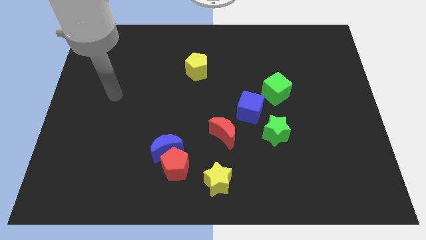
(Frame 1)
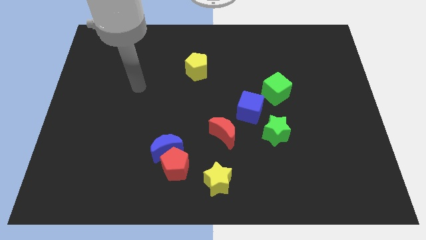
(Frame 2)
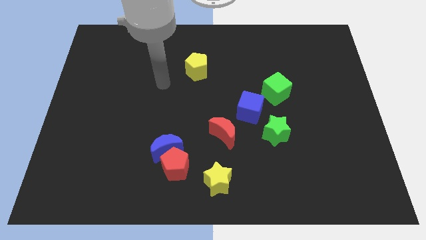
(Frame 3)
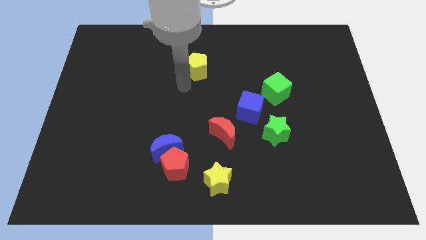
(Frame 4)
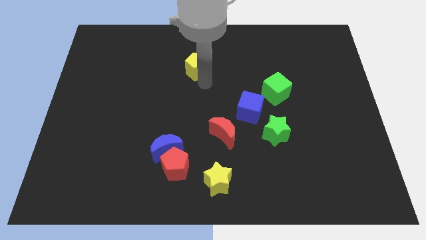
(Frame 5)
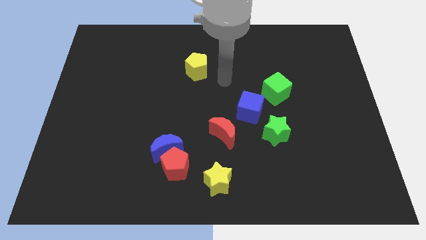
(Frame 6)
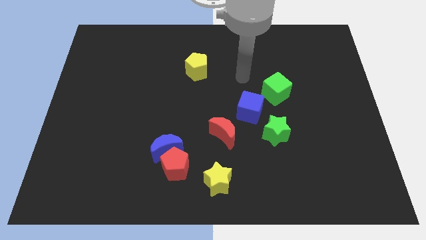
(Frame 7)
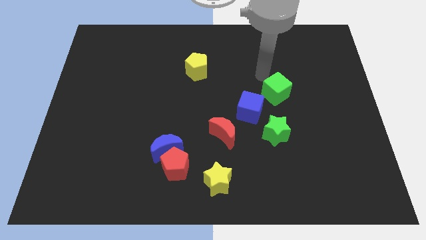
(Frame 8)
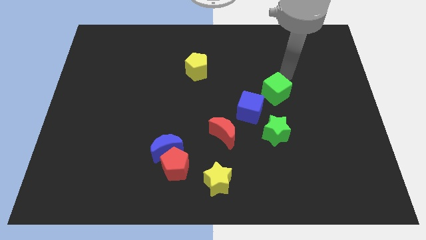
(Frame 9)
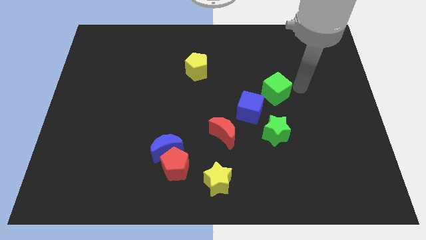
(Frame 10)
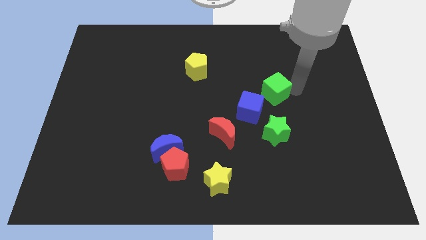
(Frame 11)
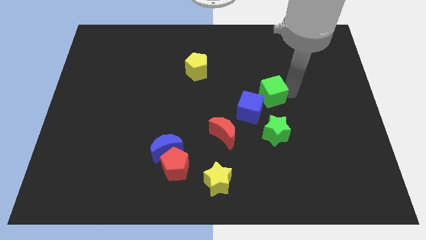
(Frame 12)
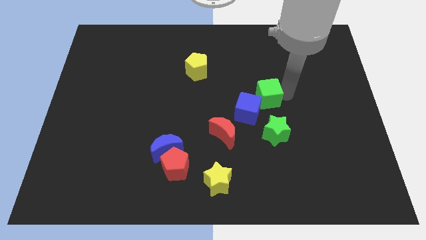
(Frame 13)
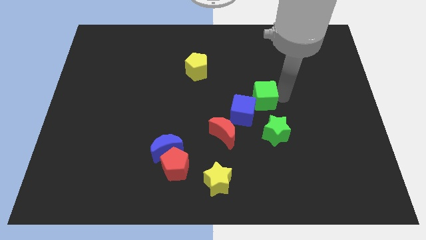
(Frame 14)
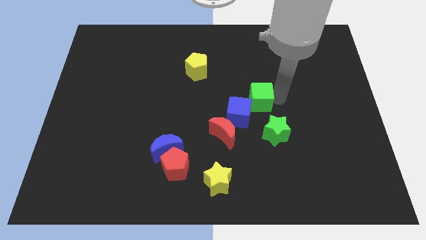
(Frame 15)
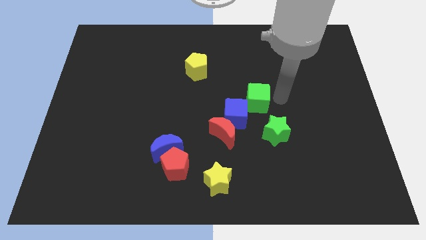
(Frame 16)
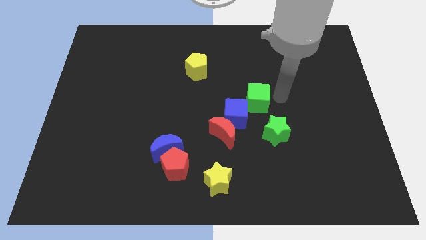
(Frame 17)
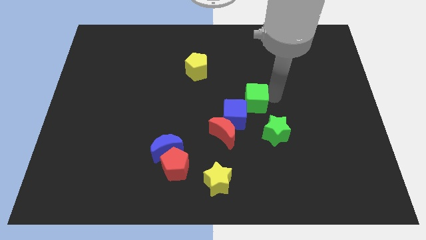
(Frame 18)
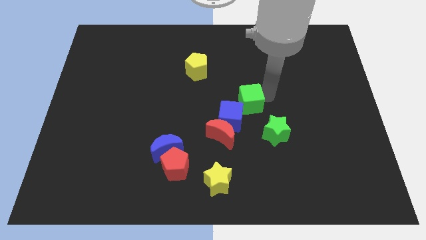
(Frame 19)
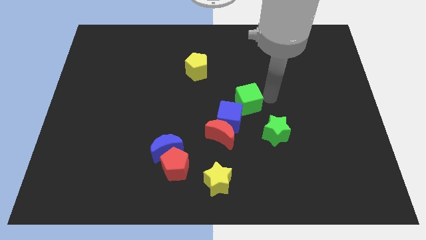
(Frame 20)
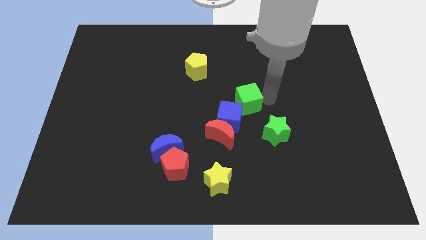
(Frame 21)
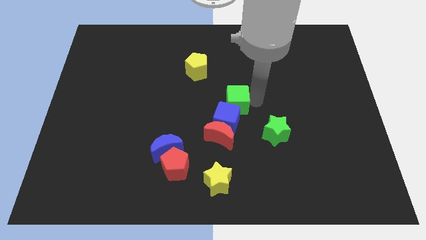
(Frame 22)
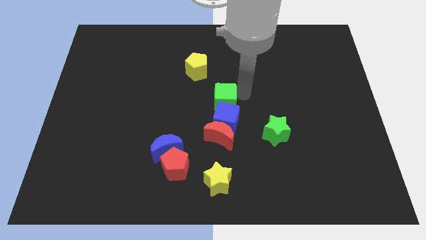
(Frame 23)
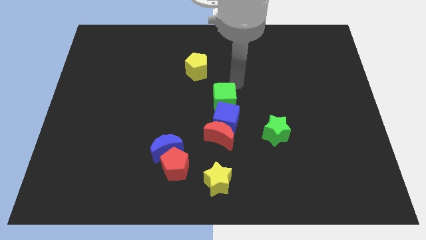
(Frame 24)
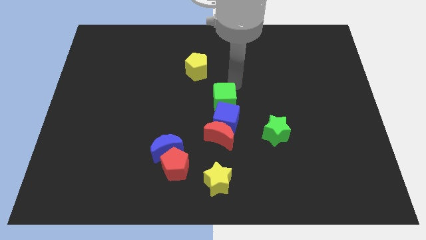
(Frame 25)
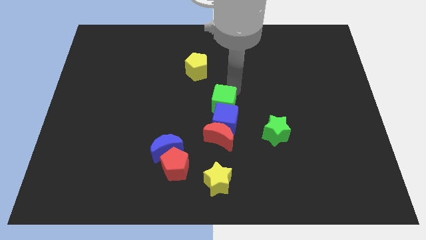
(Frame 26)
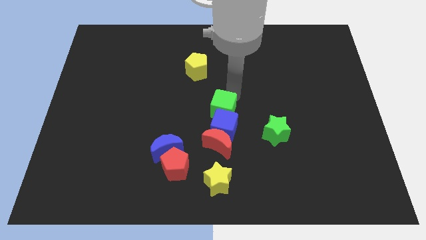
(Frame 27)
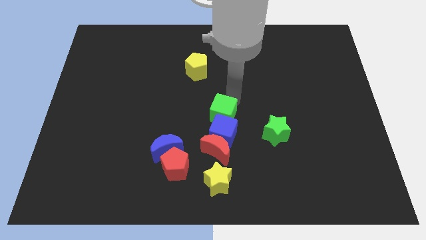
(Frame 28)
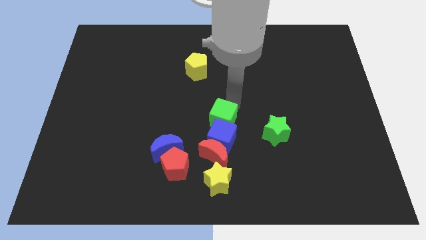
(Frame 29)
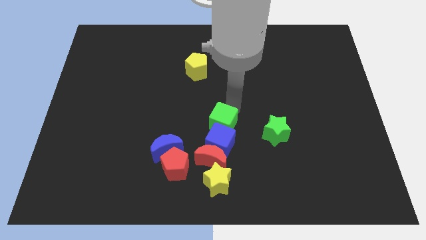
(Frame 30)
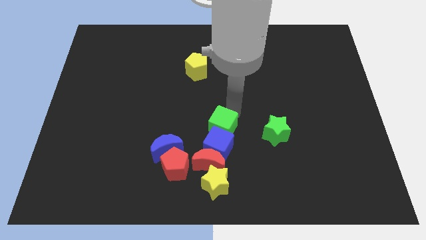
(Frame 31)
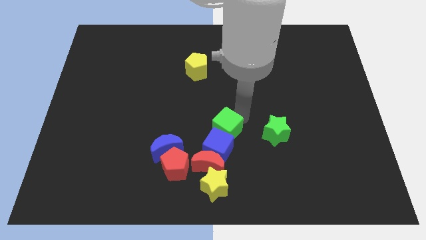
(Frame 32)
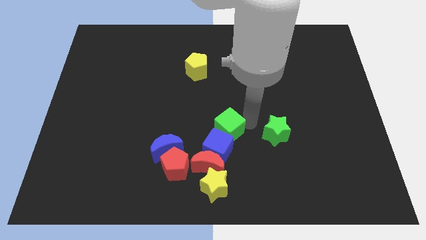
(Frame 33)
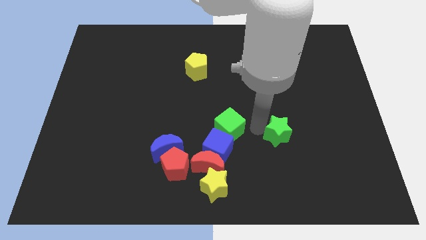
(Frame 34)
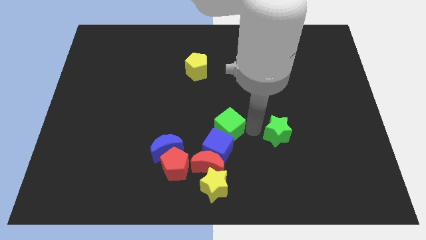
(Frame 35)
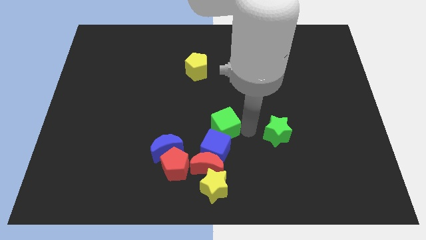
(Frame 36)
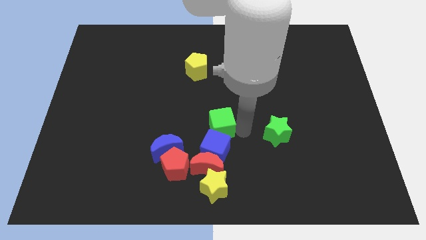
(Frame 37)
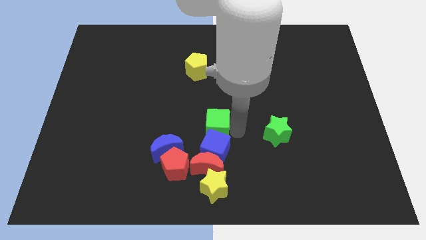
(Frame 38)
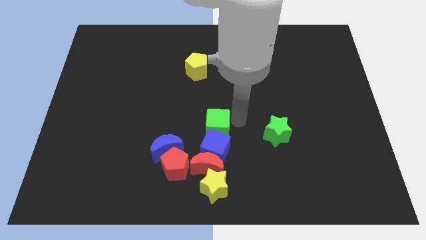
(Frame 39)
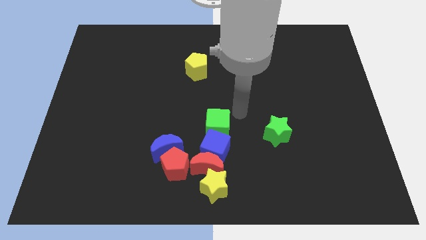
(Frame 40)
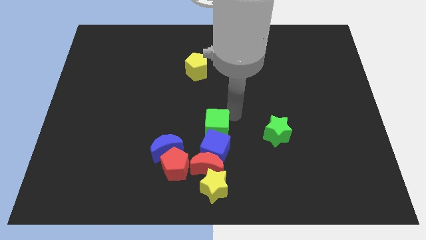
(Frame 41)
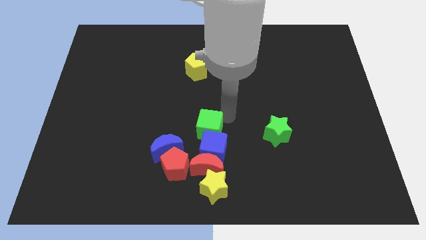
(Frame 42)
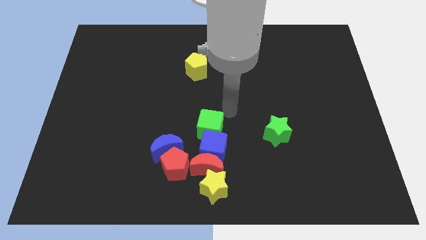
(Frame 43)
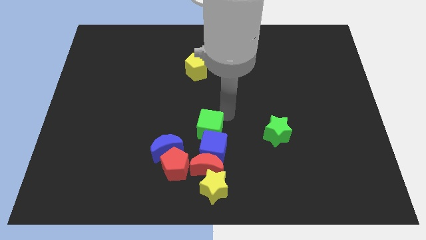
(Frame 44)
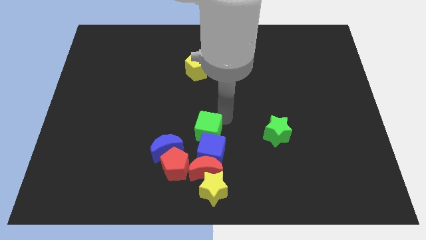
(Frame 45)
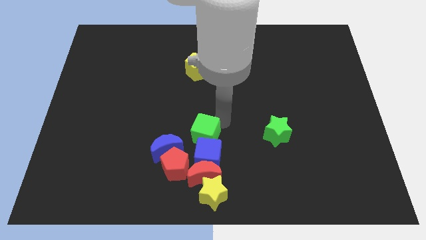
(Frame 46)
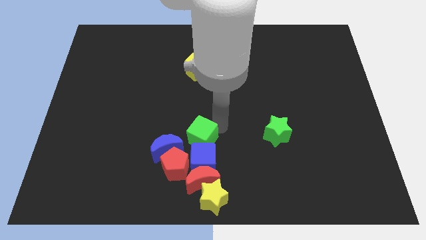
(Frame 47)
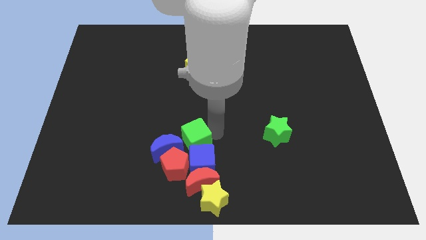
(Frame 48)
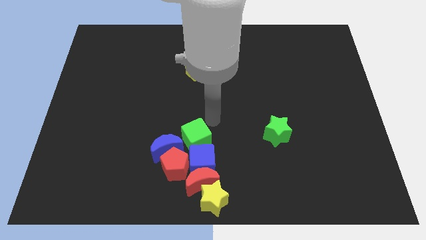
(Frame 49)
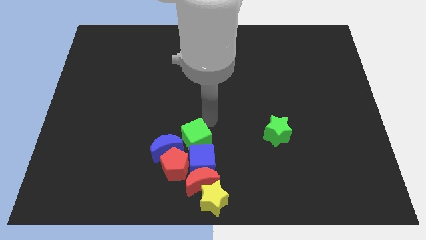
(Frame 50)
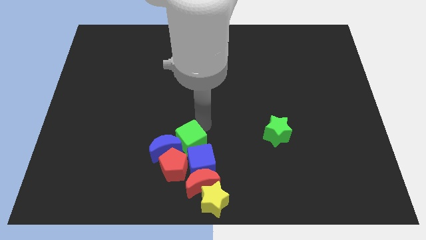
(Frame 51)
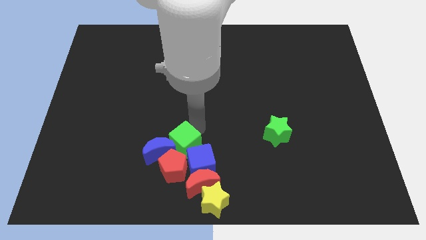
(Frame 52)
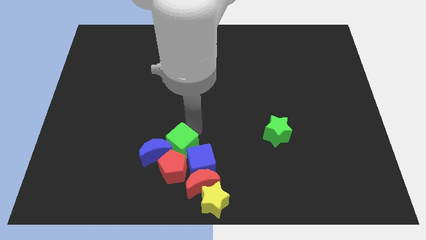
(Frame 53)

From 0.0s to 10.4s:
push the green cube to the red pentagon

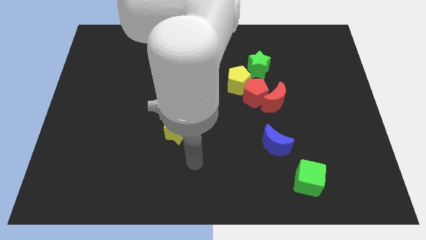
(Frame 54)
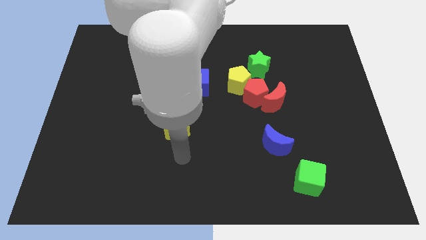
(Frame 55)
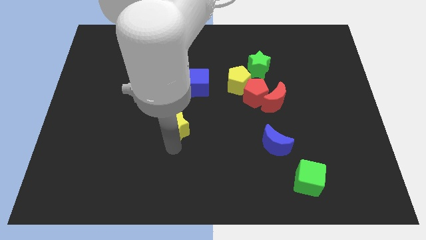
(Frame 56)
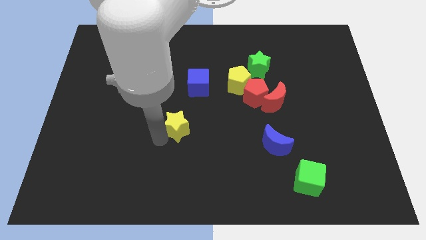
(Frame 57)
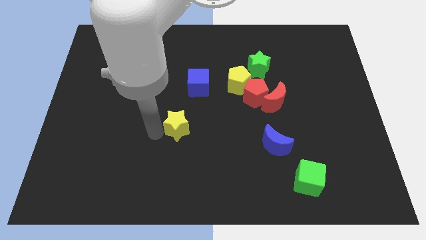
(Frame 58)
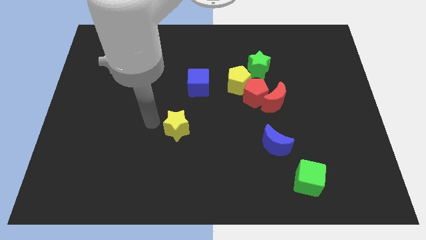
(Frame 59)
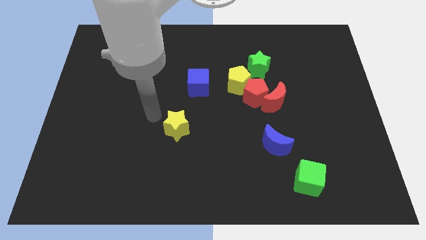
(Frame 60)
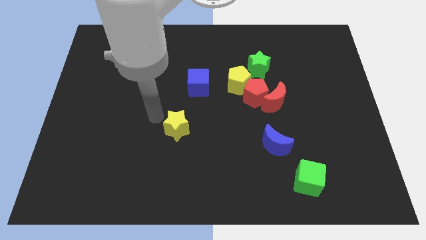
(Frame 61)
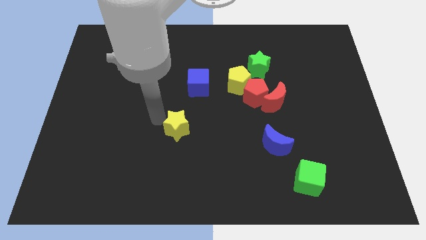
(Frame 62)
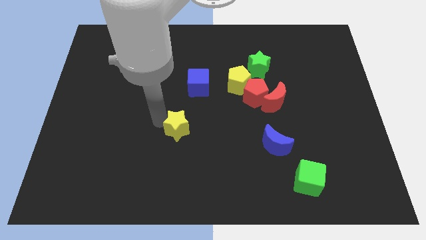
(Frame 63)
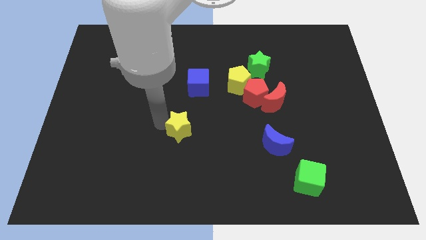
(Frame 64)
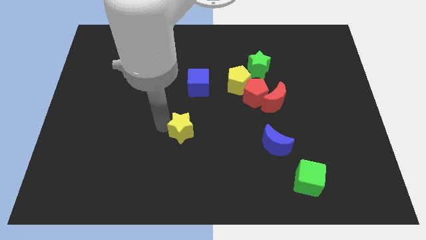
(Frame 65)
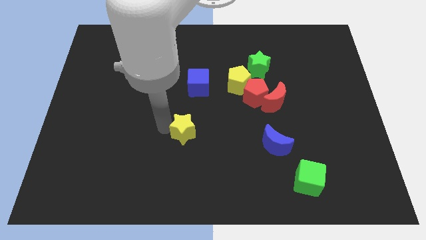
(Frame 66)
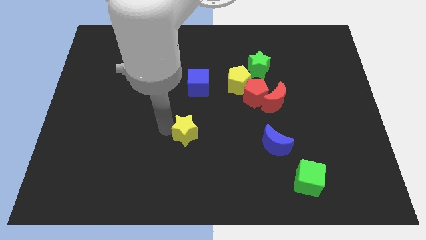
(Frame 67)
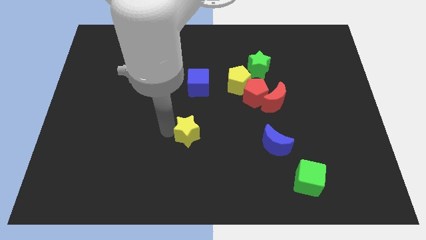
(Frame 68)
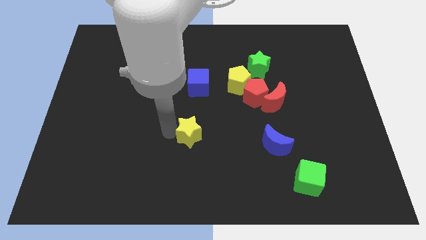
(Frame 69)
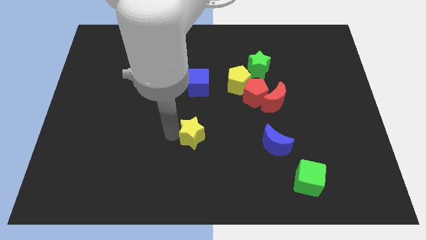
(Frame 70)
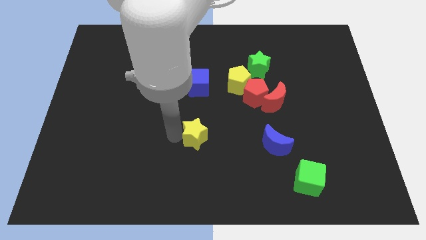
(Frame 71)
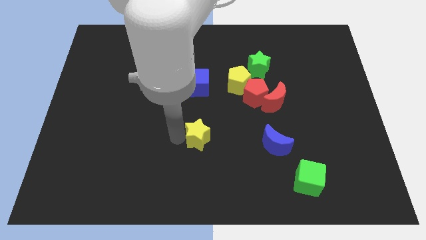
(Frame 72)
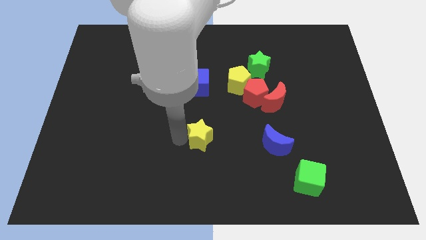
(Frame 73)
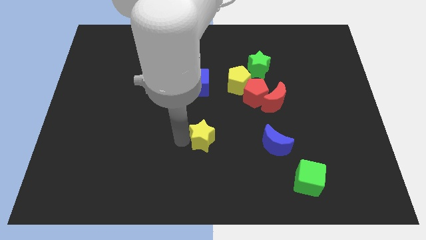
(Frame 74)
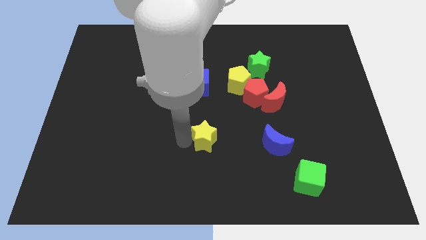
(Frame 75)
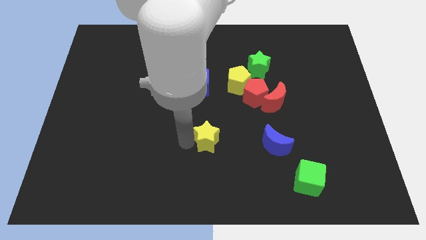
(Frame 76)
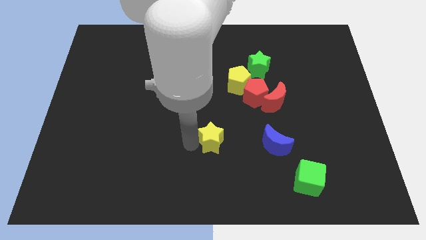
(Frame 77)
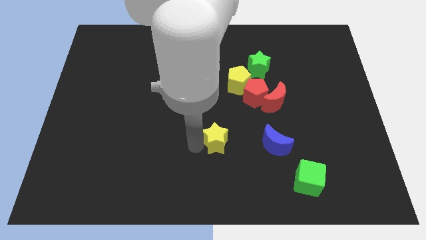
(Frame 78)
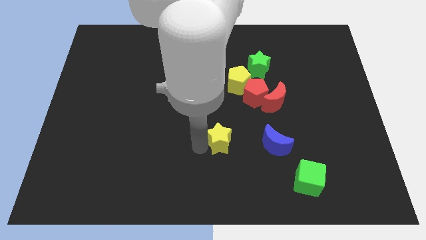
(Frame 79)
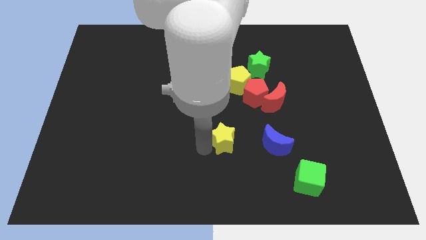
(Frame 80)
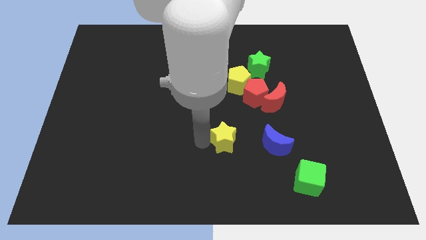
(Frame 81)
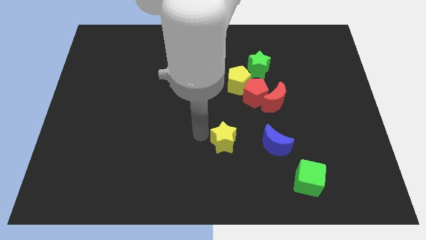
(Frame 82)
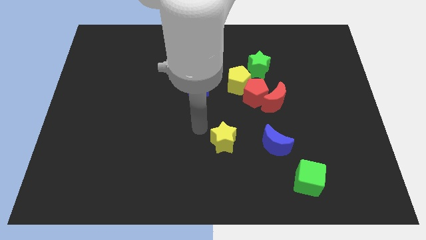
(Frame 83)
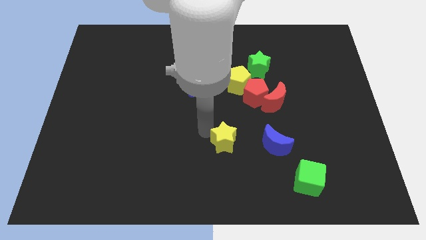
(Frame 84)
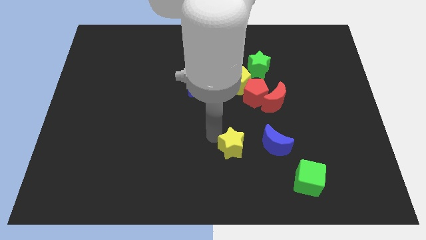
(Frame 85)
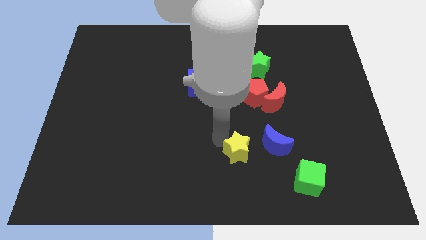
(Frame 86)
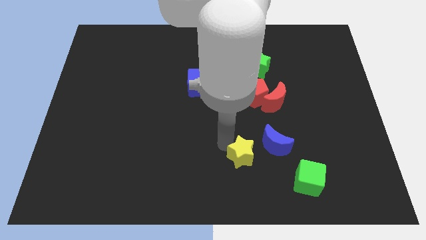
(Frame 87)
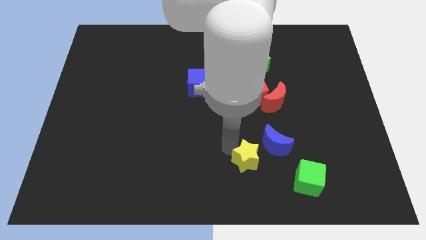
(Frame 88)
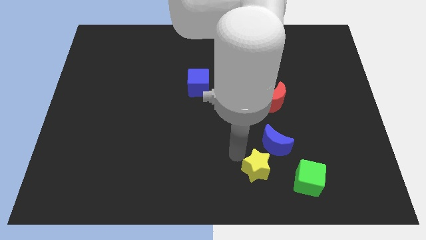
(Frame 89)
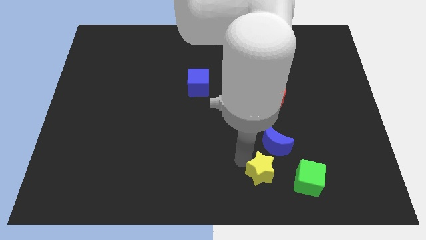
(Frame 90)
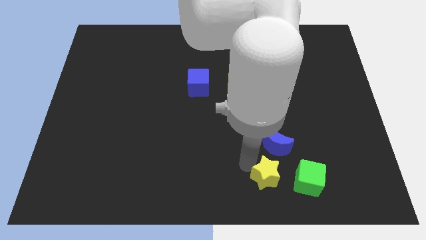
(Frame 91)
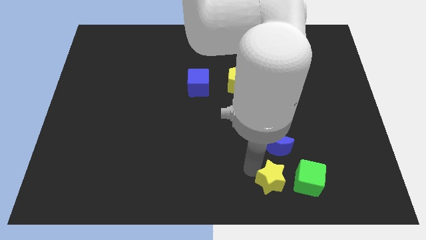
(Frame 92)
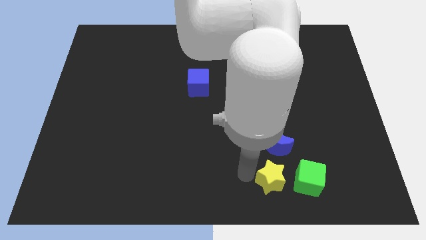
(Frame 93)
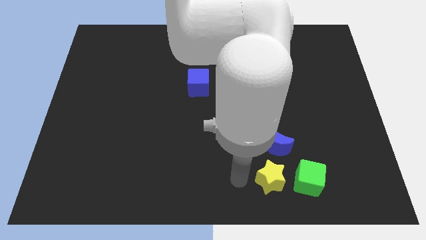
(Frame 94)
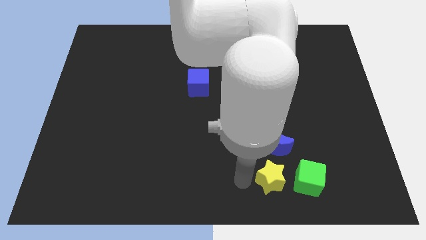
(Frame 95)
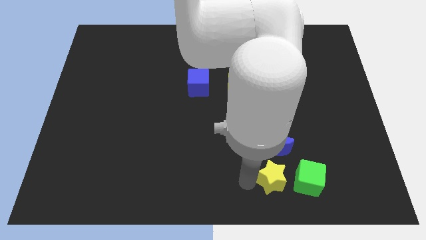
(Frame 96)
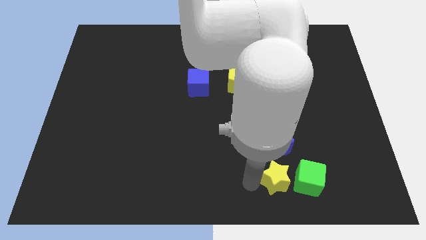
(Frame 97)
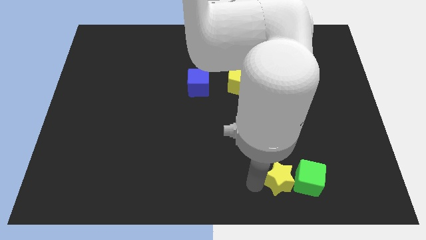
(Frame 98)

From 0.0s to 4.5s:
put the yellow star to the green cube
